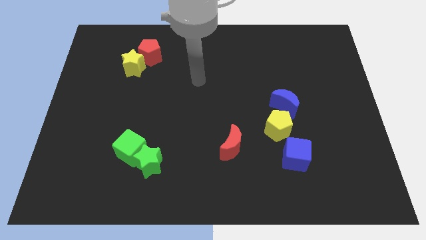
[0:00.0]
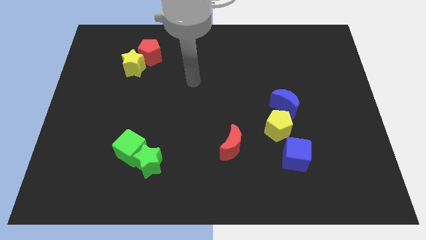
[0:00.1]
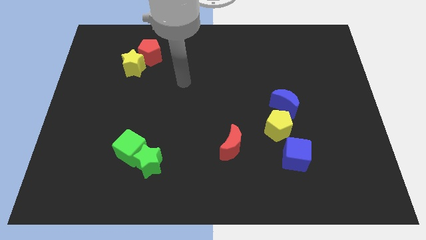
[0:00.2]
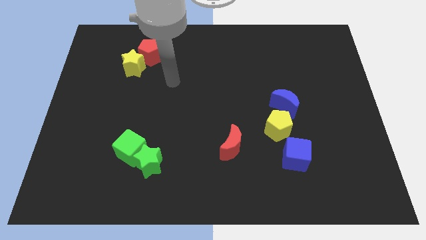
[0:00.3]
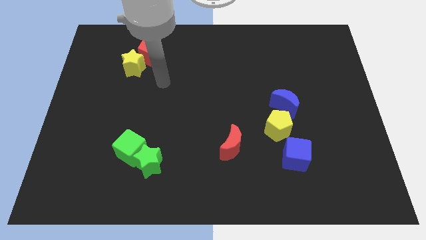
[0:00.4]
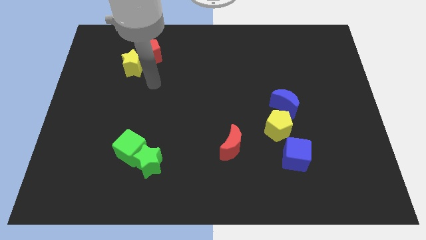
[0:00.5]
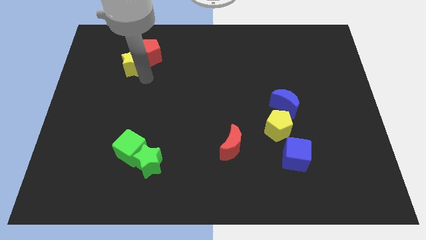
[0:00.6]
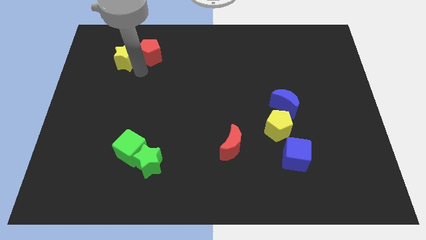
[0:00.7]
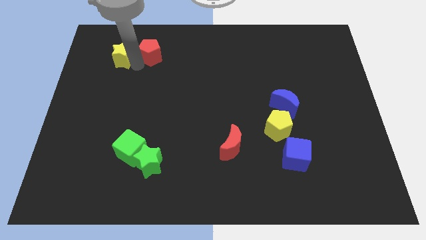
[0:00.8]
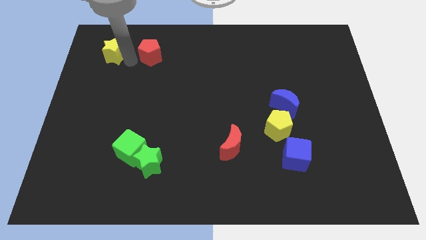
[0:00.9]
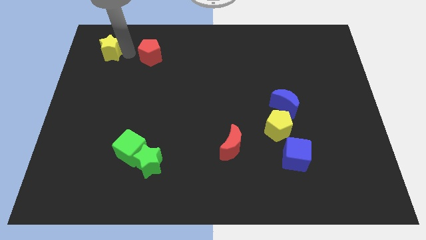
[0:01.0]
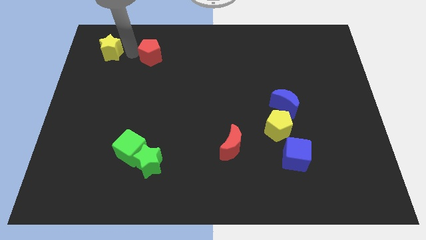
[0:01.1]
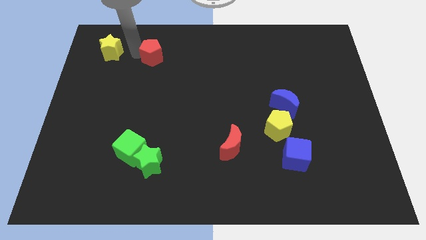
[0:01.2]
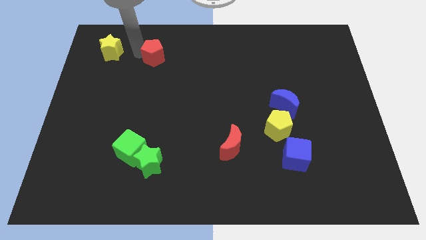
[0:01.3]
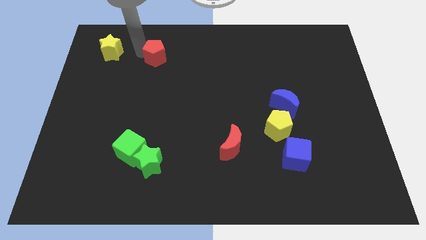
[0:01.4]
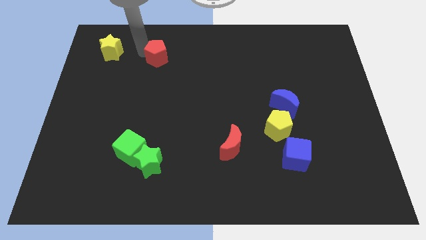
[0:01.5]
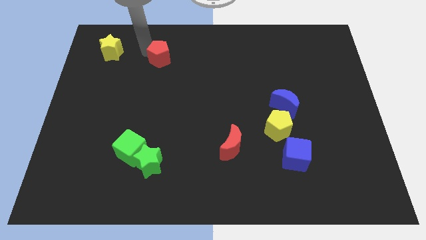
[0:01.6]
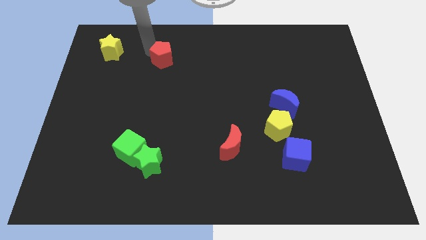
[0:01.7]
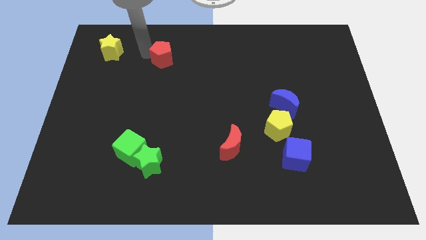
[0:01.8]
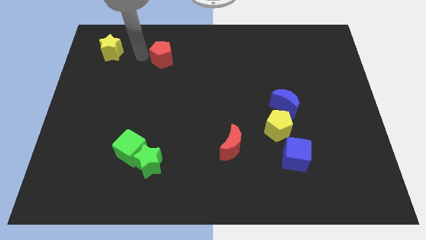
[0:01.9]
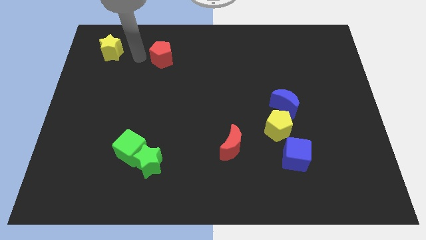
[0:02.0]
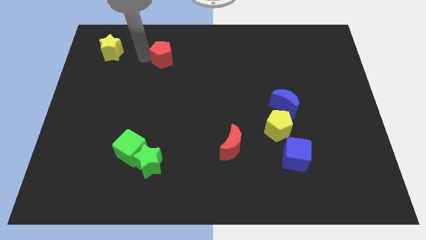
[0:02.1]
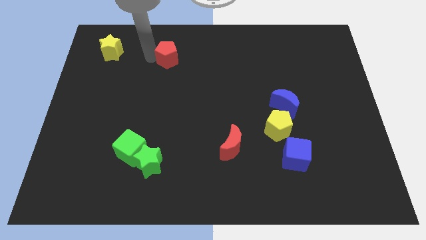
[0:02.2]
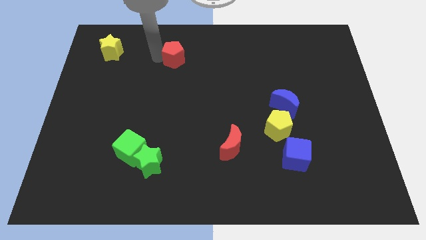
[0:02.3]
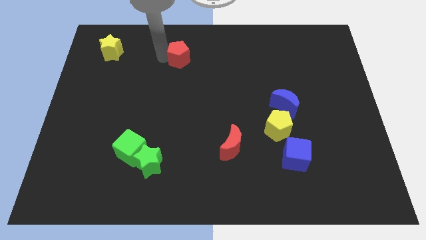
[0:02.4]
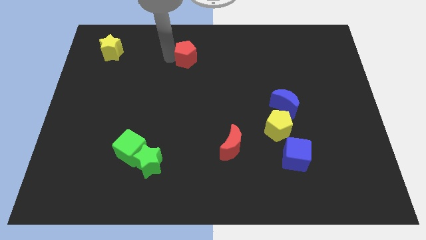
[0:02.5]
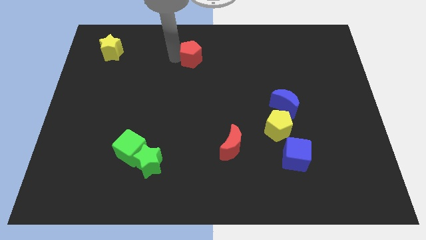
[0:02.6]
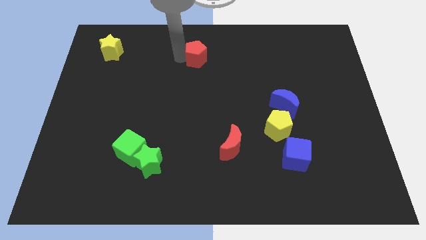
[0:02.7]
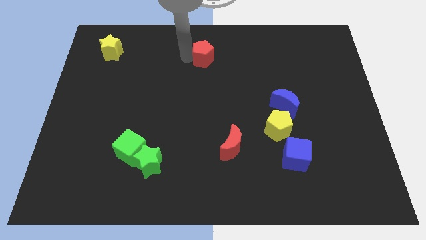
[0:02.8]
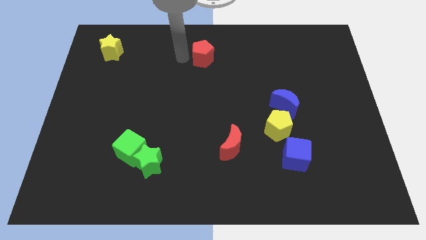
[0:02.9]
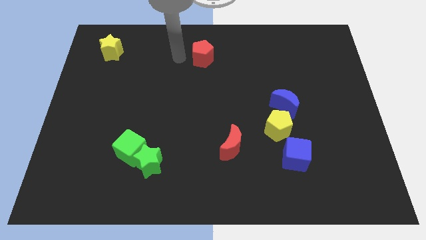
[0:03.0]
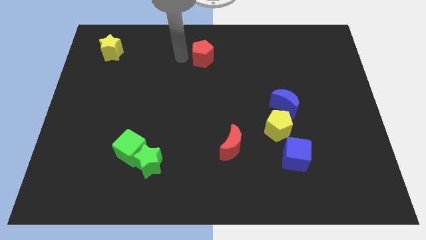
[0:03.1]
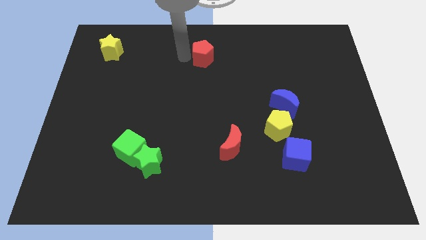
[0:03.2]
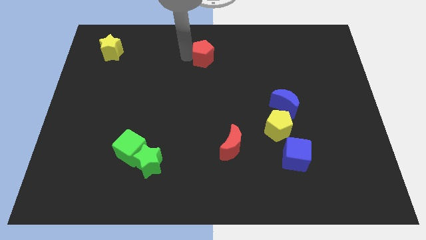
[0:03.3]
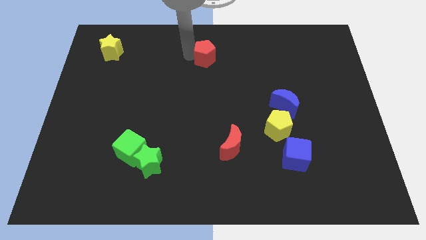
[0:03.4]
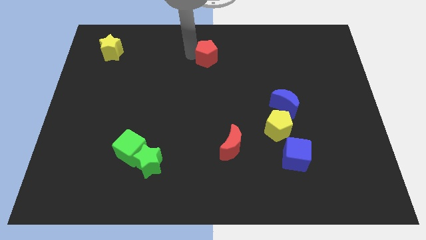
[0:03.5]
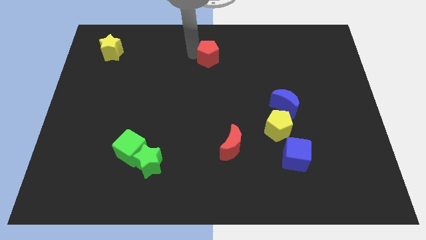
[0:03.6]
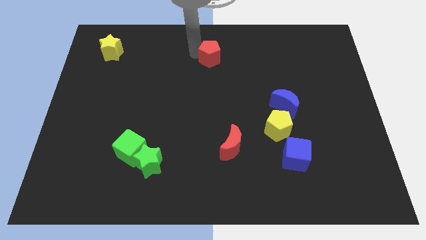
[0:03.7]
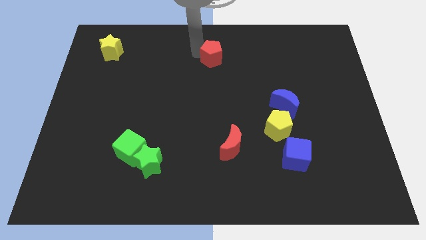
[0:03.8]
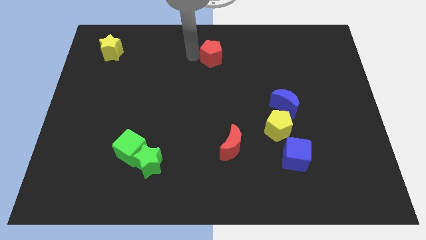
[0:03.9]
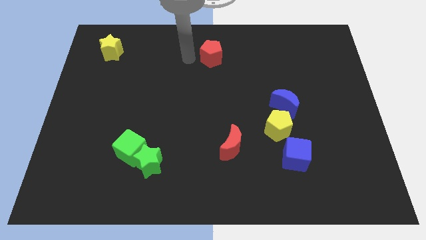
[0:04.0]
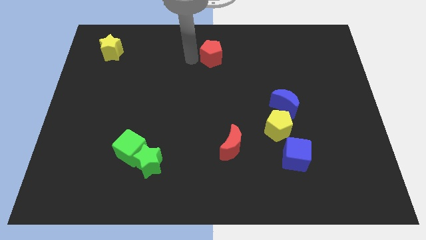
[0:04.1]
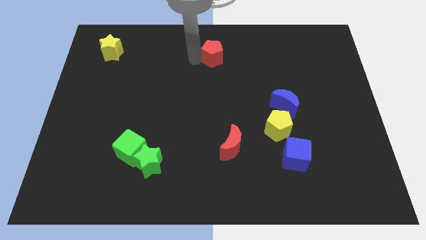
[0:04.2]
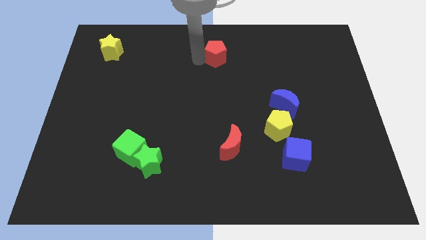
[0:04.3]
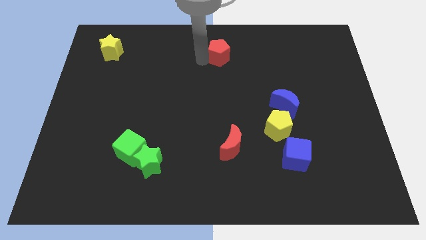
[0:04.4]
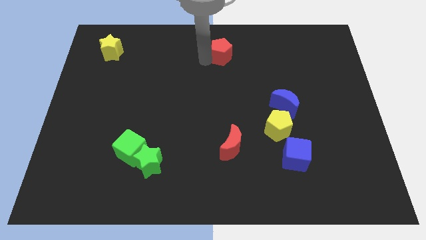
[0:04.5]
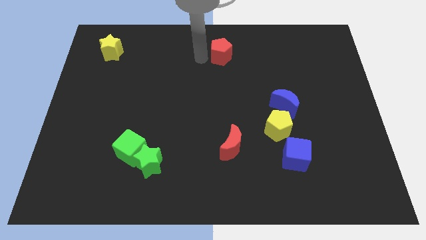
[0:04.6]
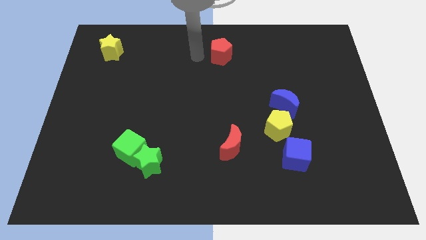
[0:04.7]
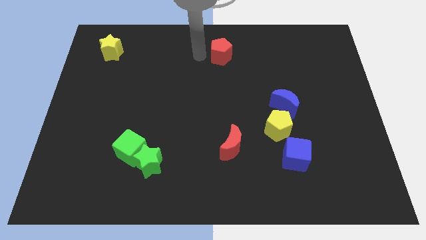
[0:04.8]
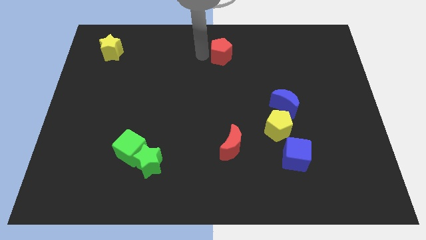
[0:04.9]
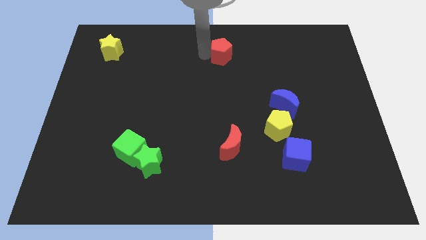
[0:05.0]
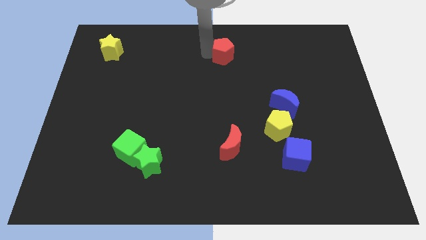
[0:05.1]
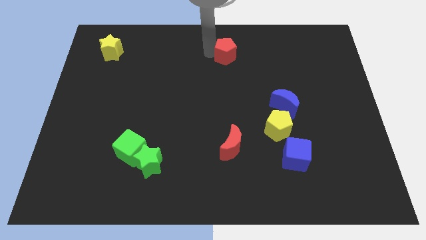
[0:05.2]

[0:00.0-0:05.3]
move the red pentagon right

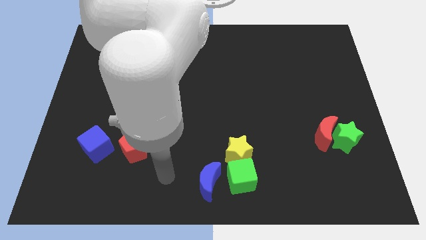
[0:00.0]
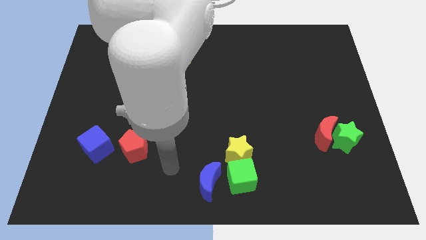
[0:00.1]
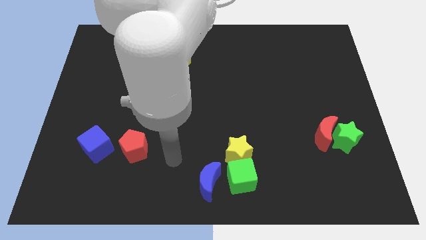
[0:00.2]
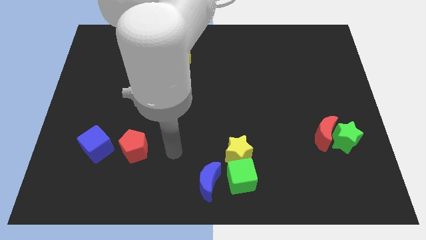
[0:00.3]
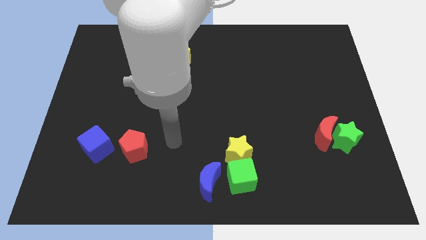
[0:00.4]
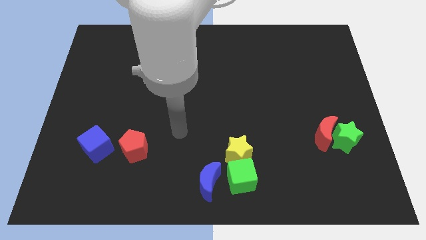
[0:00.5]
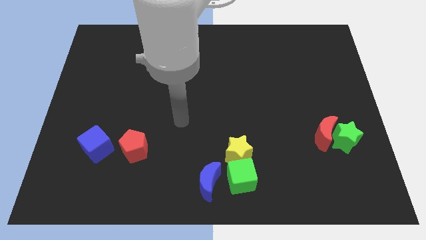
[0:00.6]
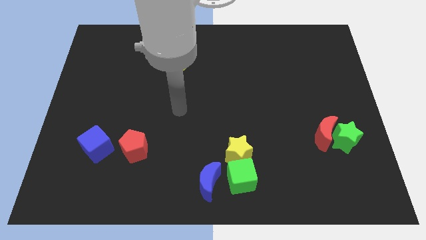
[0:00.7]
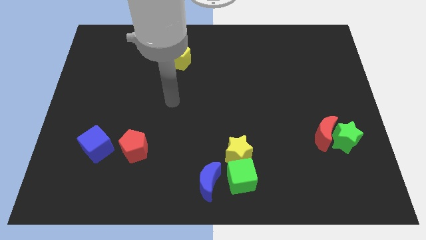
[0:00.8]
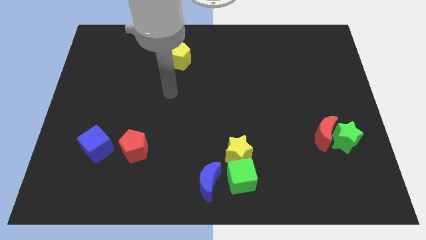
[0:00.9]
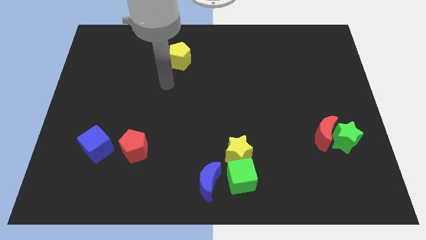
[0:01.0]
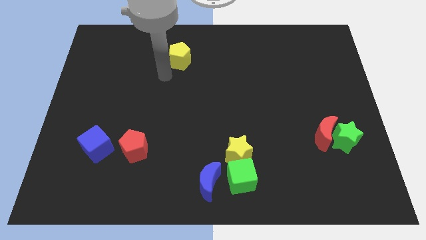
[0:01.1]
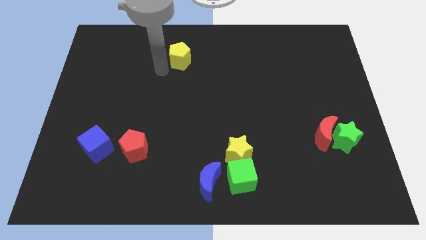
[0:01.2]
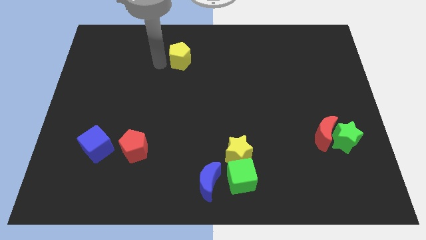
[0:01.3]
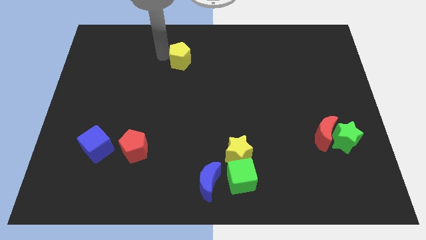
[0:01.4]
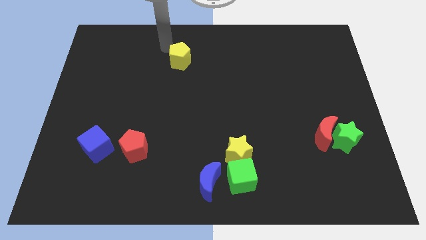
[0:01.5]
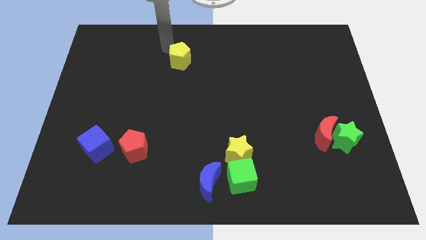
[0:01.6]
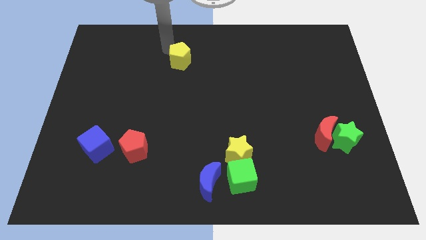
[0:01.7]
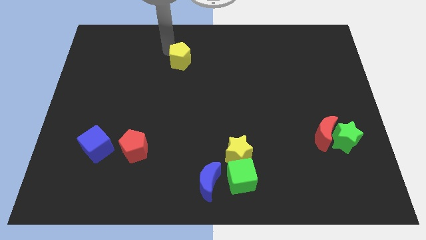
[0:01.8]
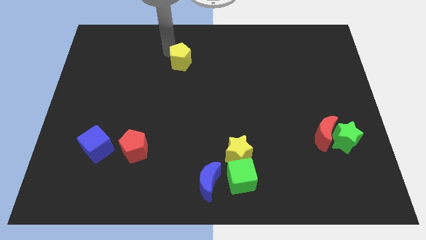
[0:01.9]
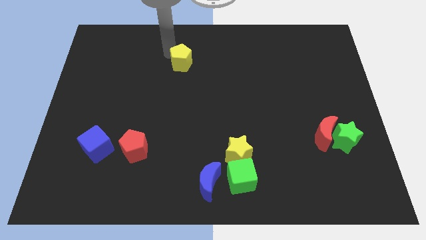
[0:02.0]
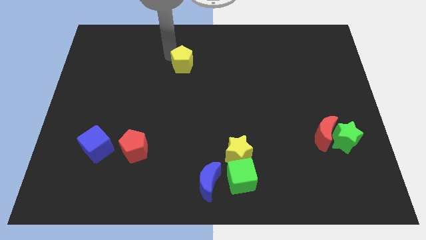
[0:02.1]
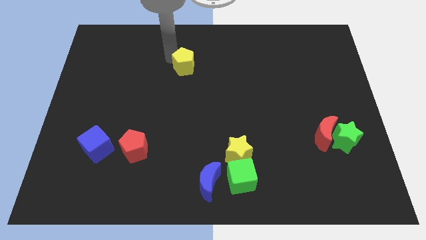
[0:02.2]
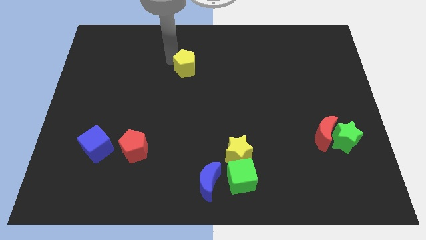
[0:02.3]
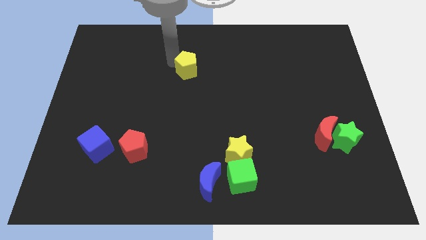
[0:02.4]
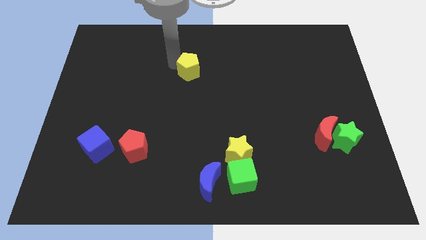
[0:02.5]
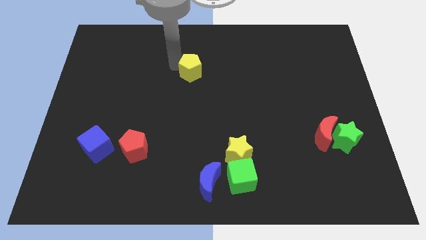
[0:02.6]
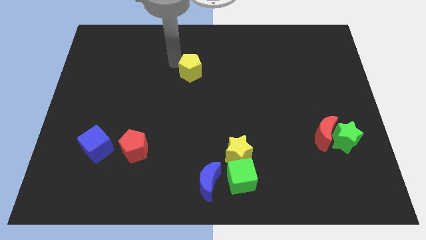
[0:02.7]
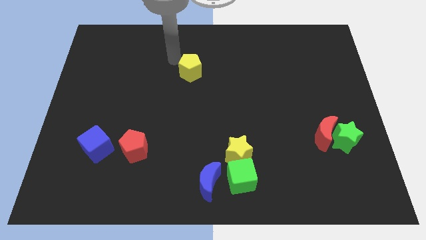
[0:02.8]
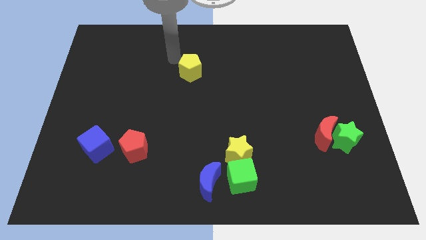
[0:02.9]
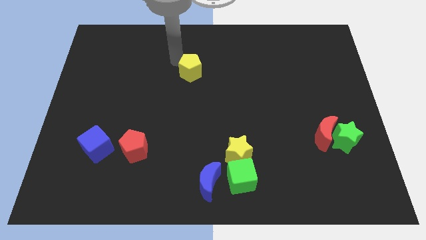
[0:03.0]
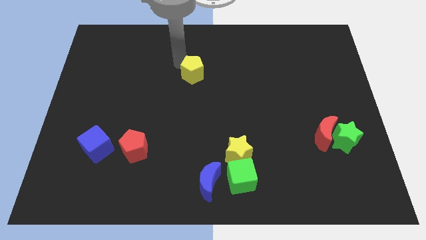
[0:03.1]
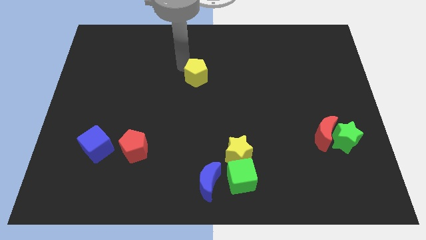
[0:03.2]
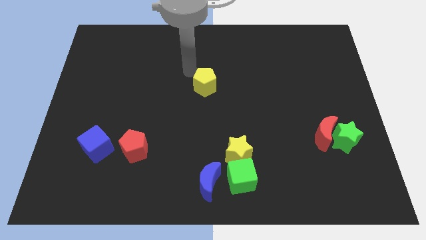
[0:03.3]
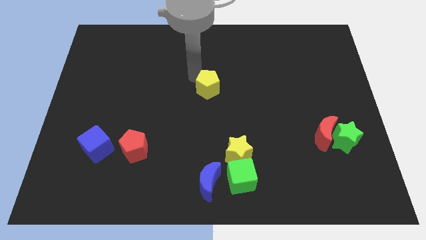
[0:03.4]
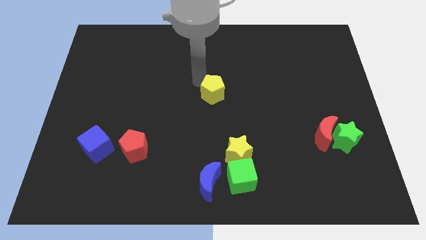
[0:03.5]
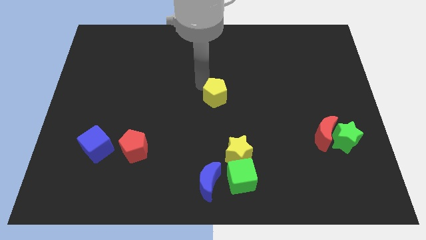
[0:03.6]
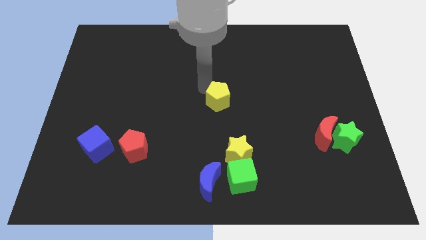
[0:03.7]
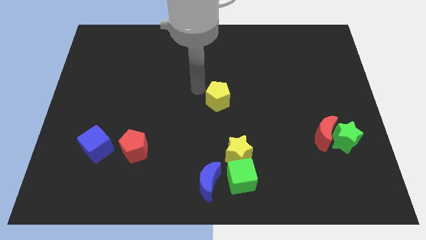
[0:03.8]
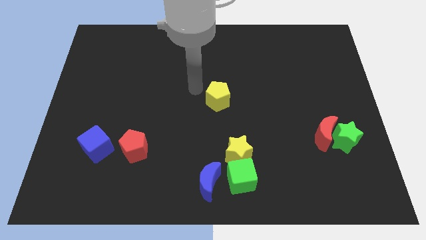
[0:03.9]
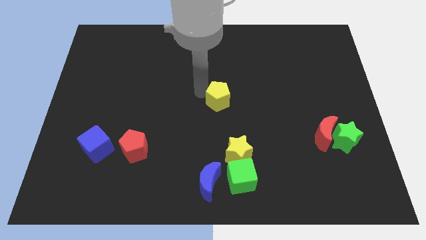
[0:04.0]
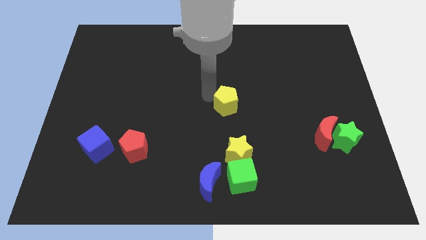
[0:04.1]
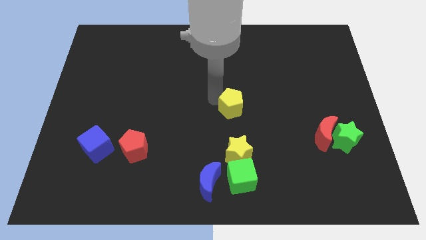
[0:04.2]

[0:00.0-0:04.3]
slide the yellow pentagon down and then to the right
